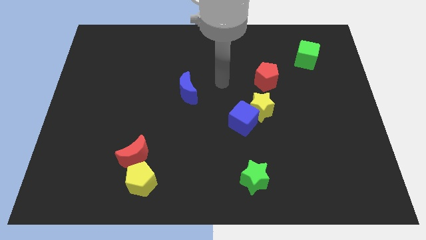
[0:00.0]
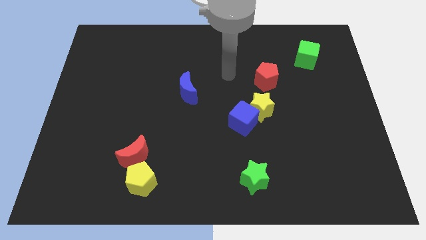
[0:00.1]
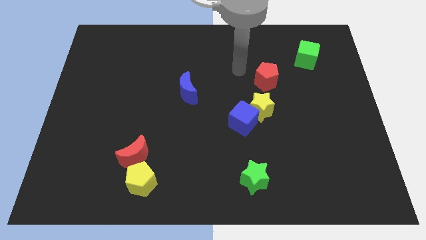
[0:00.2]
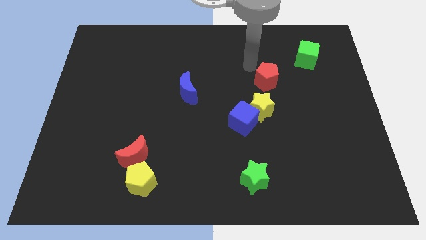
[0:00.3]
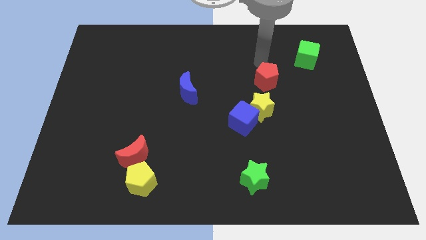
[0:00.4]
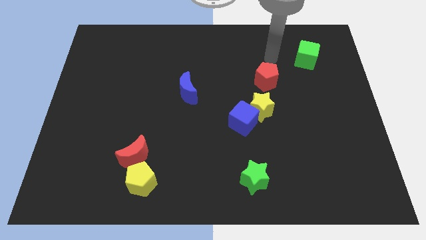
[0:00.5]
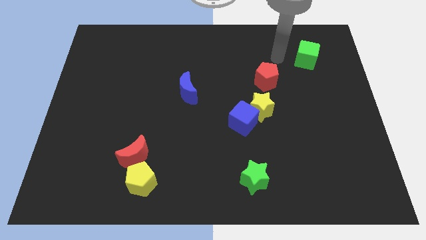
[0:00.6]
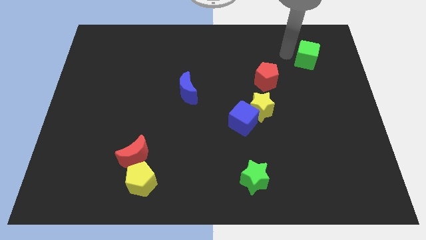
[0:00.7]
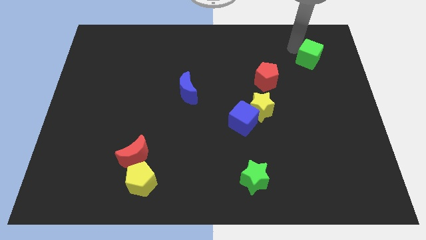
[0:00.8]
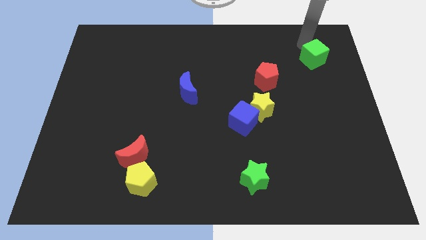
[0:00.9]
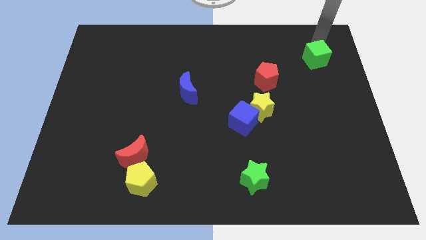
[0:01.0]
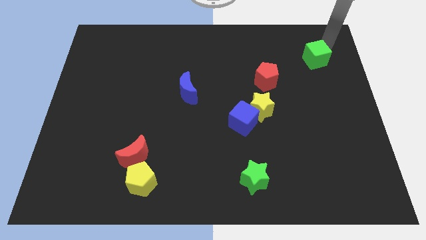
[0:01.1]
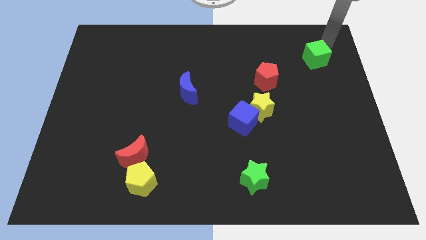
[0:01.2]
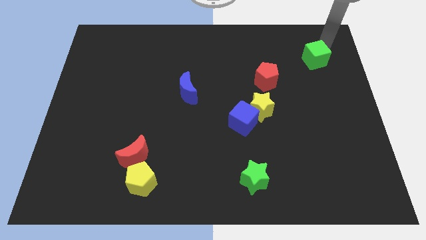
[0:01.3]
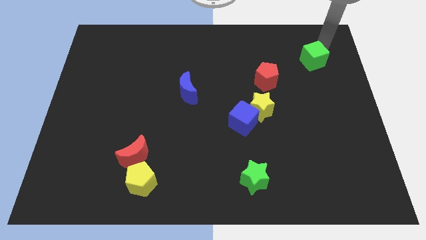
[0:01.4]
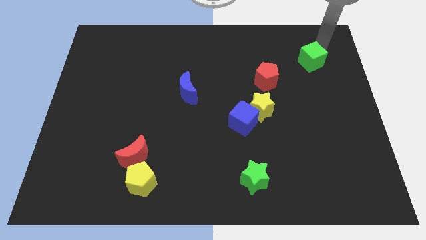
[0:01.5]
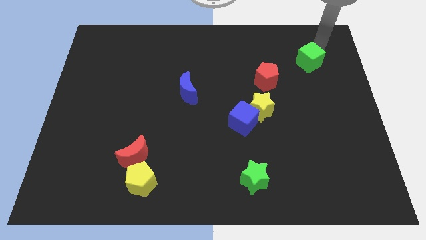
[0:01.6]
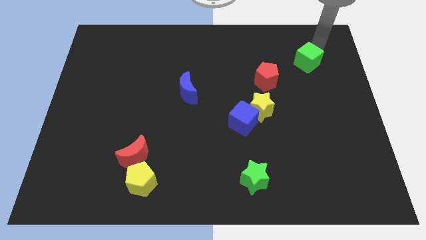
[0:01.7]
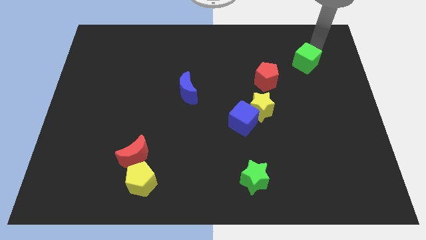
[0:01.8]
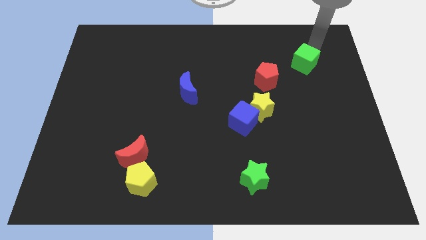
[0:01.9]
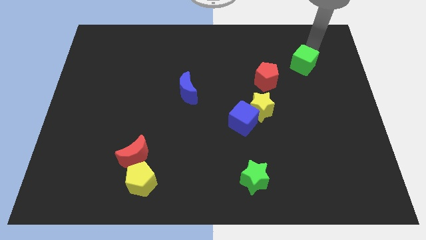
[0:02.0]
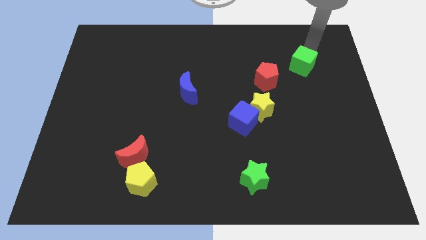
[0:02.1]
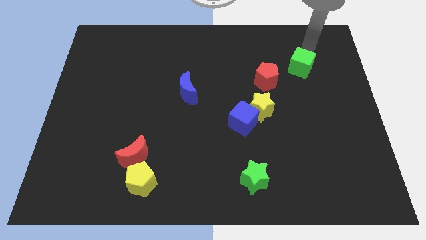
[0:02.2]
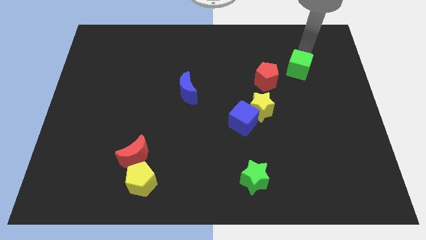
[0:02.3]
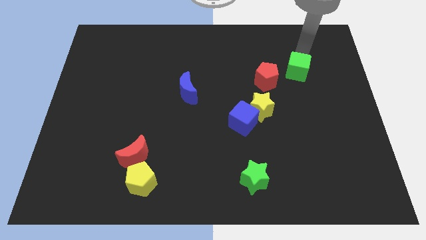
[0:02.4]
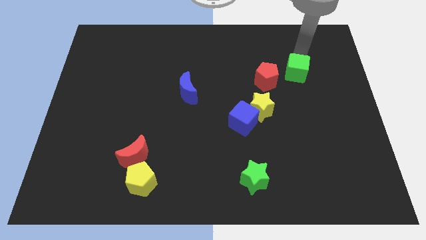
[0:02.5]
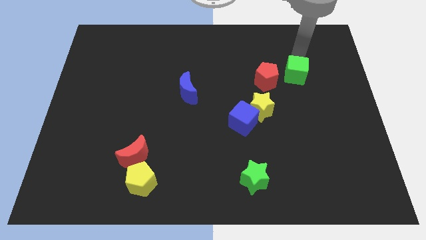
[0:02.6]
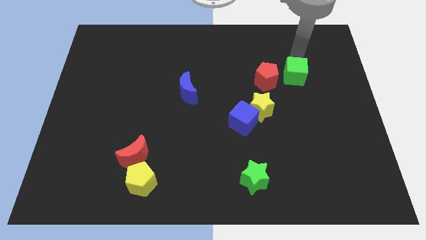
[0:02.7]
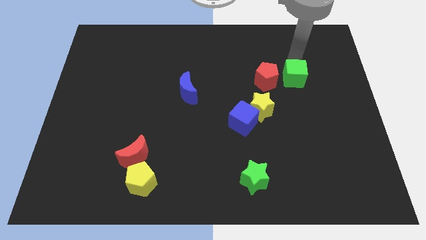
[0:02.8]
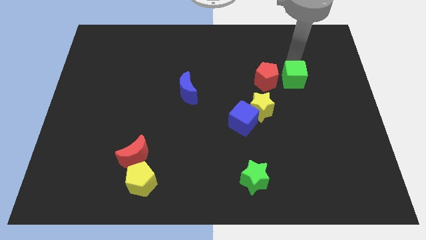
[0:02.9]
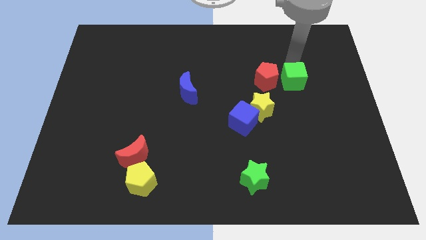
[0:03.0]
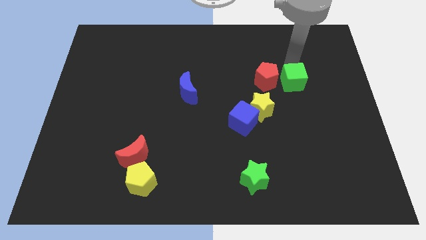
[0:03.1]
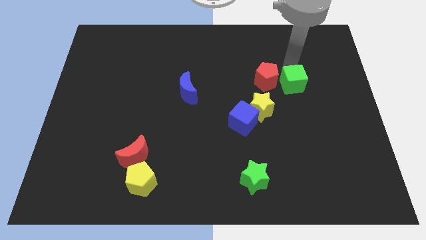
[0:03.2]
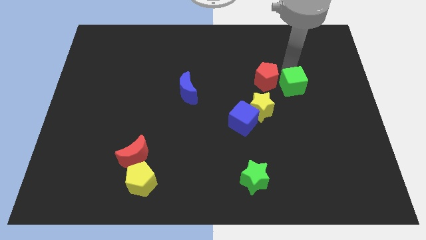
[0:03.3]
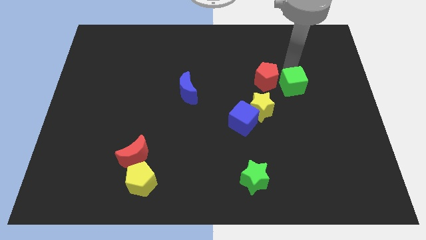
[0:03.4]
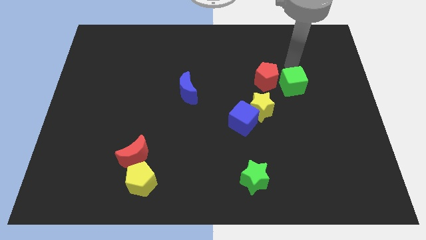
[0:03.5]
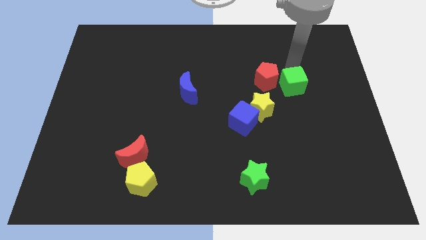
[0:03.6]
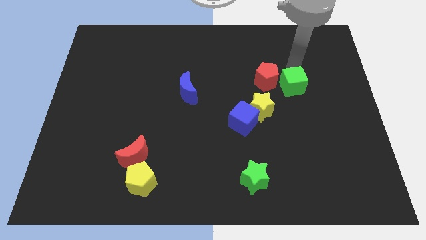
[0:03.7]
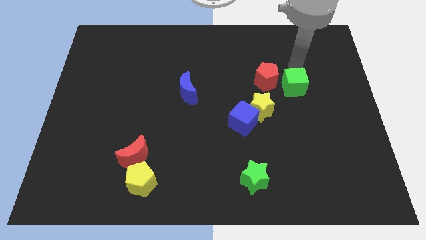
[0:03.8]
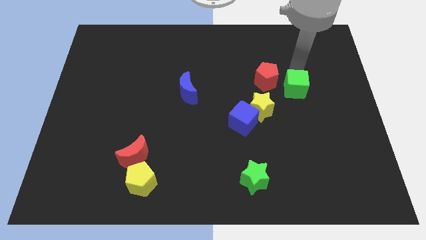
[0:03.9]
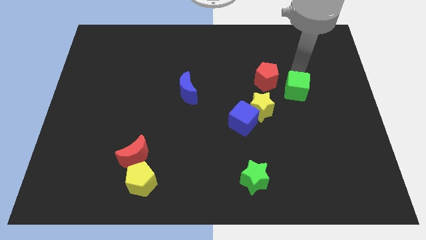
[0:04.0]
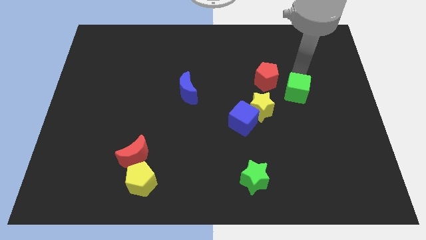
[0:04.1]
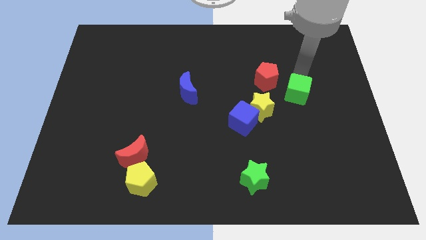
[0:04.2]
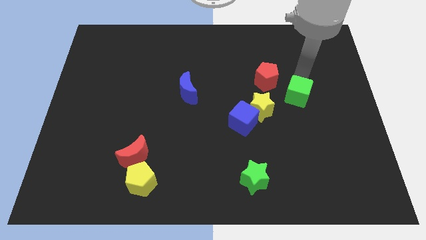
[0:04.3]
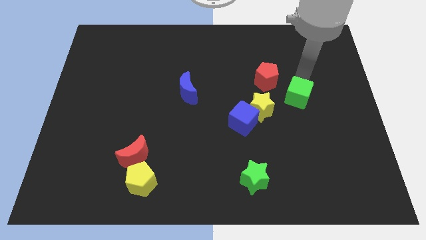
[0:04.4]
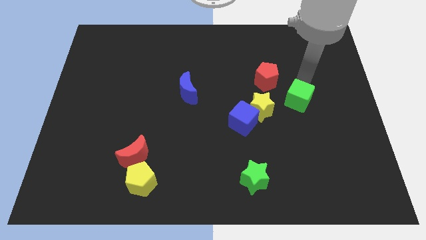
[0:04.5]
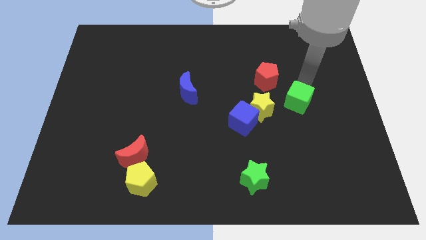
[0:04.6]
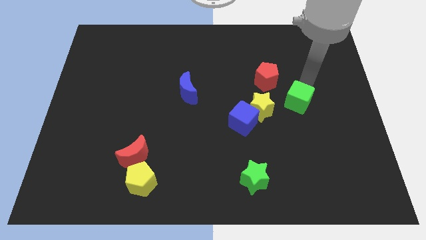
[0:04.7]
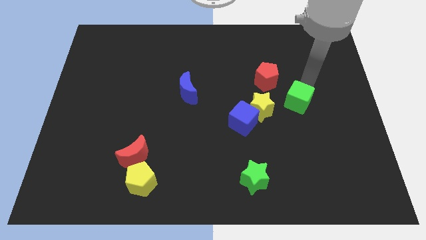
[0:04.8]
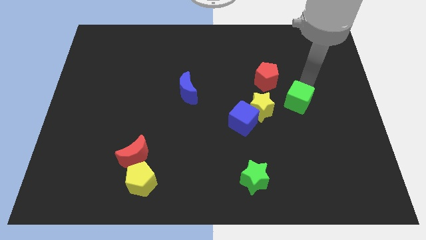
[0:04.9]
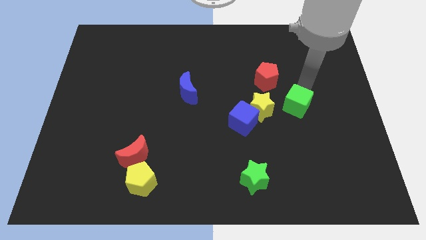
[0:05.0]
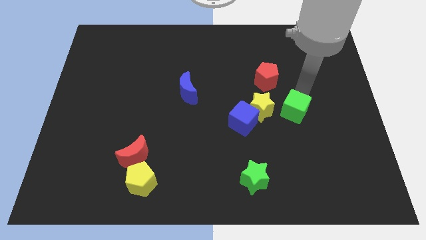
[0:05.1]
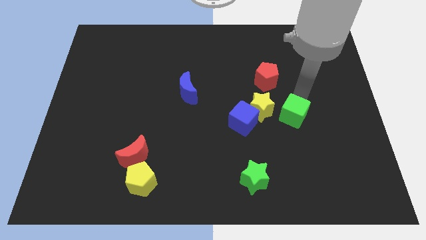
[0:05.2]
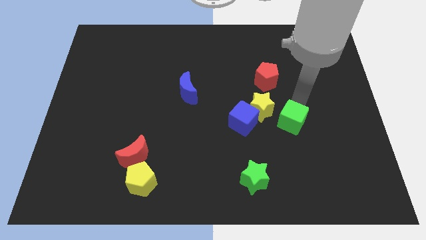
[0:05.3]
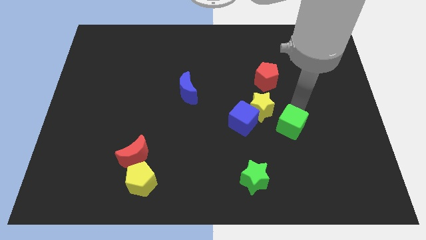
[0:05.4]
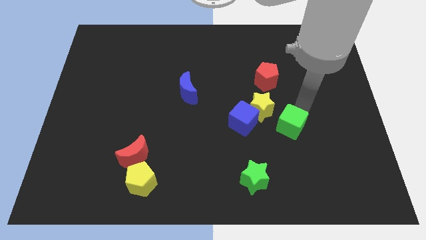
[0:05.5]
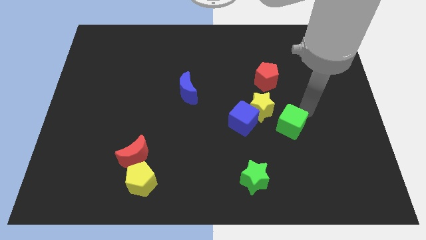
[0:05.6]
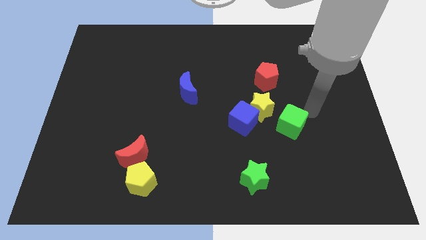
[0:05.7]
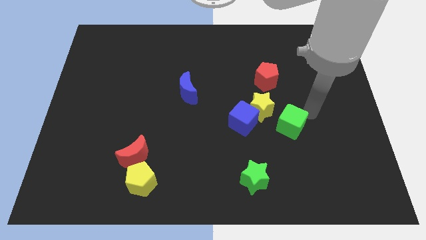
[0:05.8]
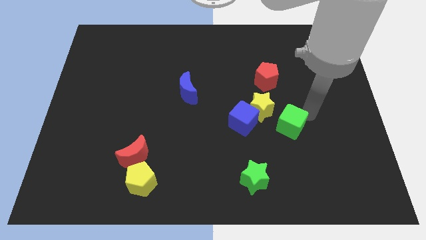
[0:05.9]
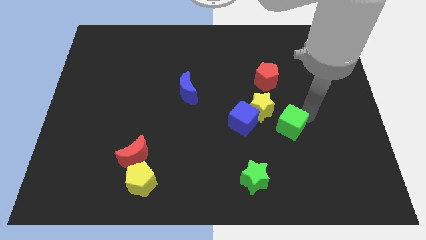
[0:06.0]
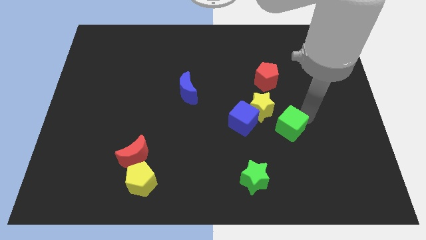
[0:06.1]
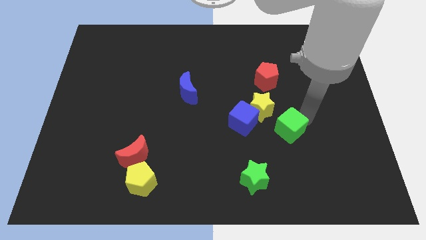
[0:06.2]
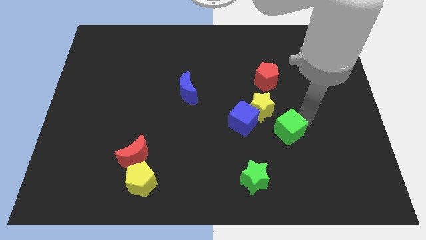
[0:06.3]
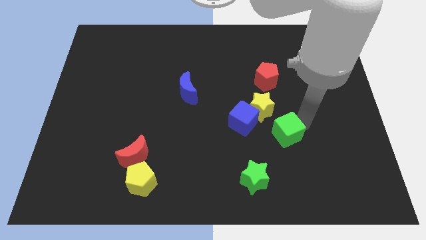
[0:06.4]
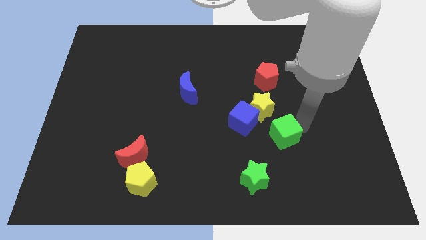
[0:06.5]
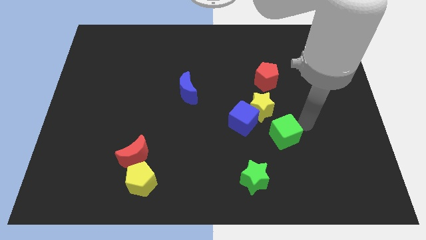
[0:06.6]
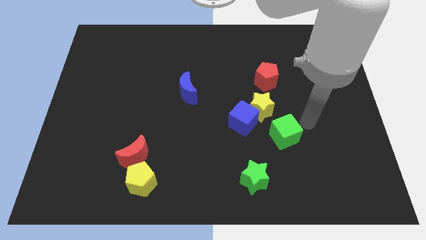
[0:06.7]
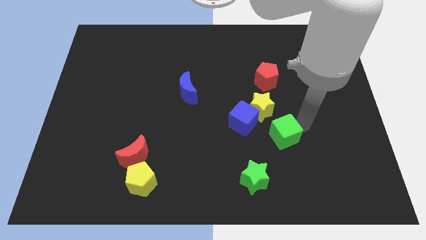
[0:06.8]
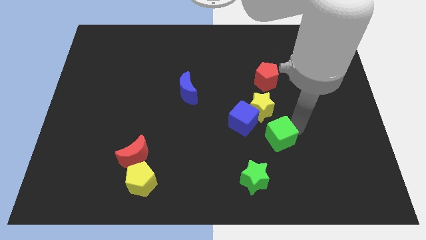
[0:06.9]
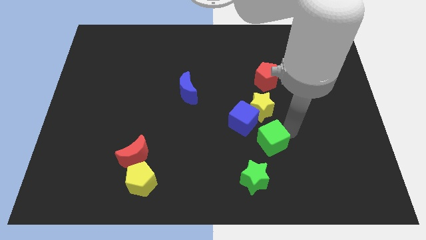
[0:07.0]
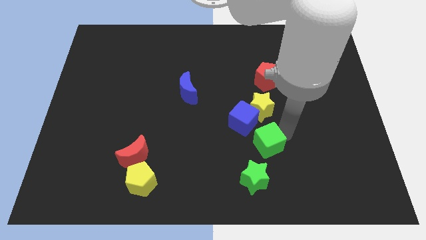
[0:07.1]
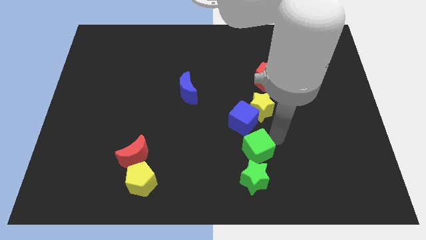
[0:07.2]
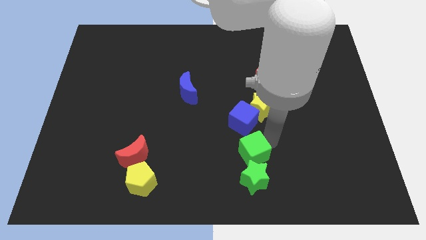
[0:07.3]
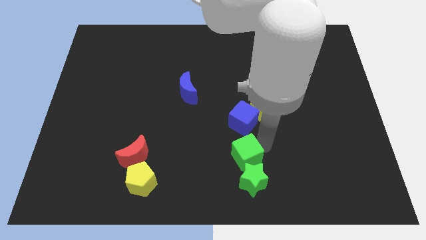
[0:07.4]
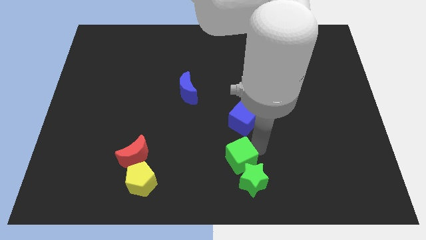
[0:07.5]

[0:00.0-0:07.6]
move the green cube to the bottom side
